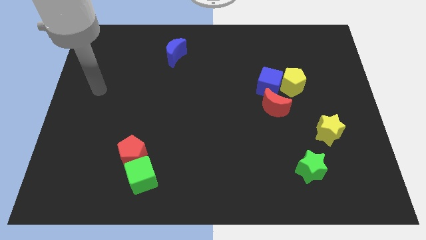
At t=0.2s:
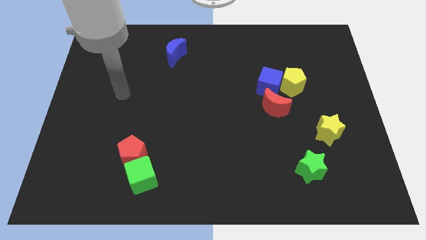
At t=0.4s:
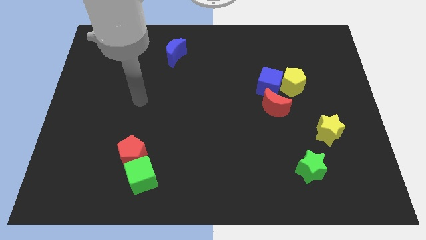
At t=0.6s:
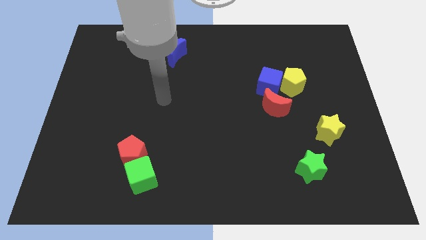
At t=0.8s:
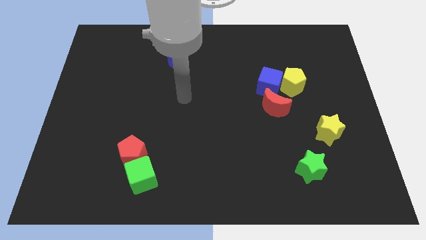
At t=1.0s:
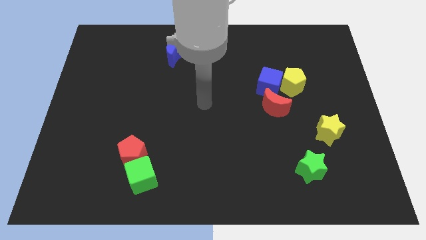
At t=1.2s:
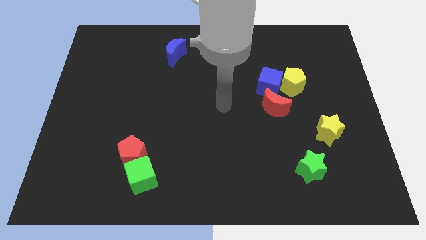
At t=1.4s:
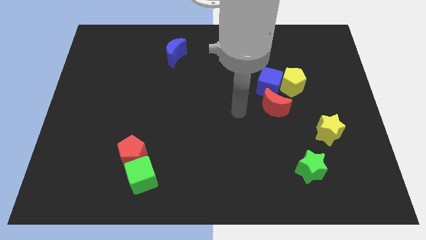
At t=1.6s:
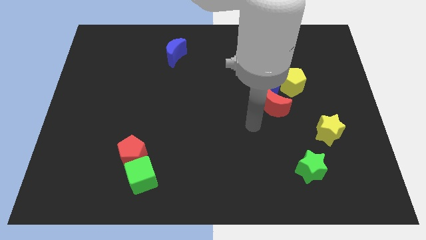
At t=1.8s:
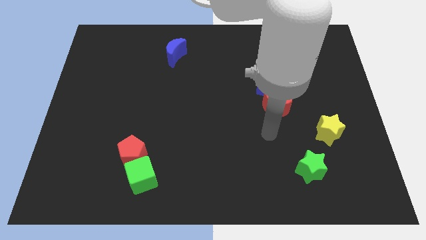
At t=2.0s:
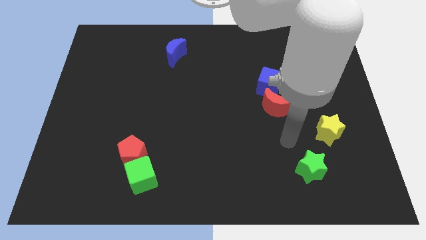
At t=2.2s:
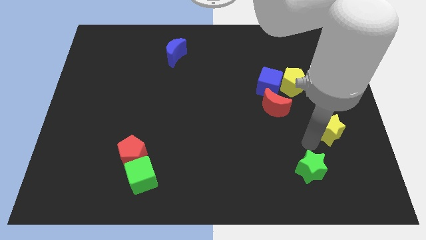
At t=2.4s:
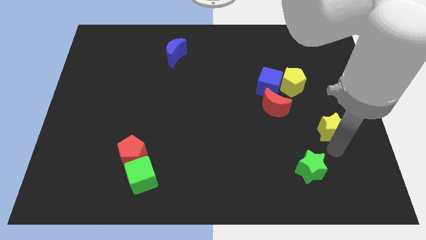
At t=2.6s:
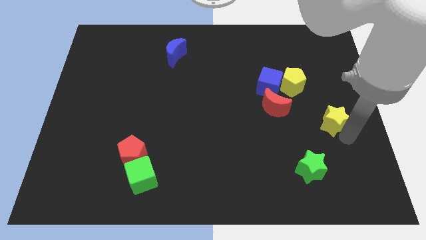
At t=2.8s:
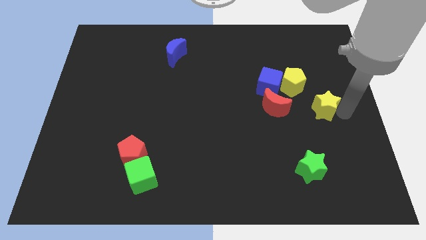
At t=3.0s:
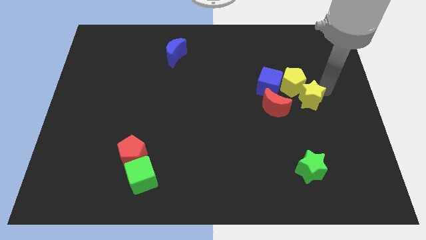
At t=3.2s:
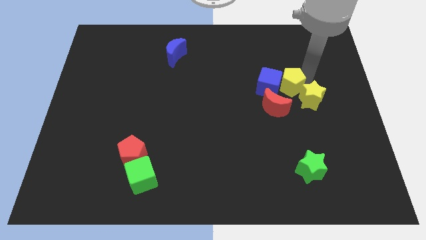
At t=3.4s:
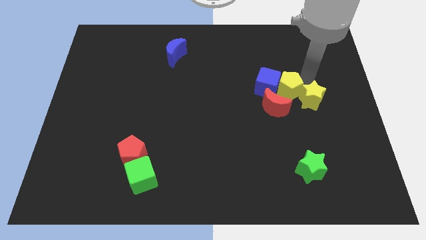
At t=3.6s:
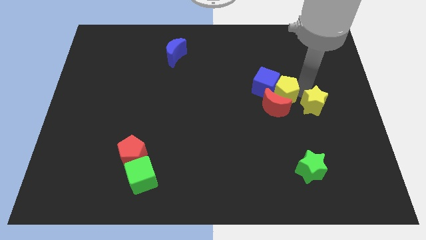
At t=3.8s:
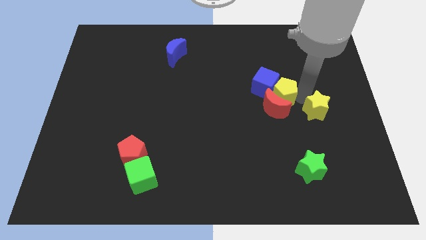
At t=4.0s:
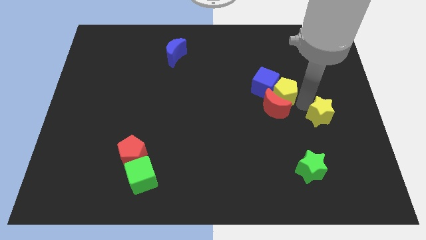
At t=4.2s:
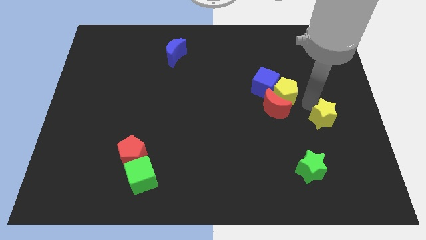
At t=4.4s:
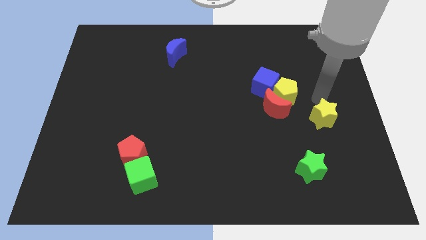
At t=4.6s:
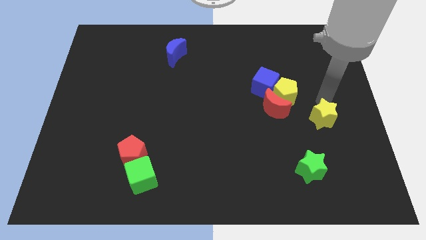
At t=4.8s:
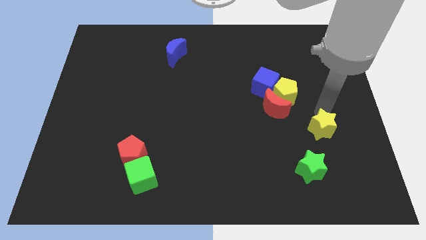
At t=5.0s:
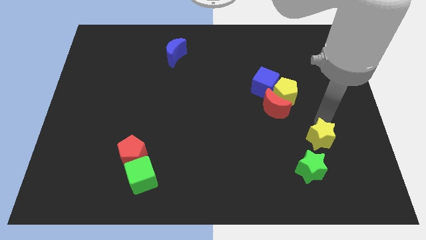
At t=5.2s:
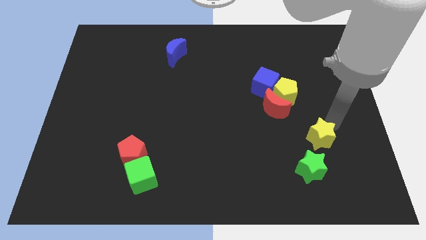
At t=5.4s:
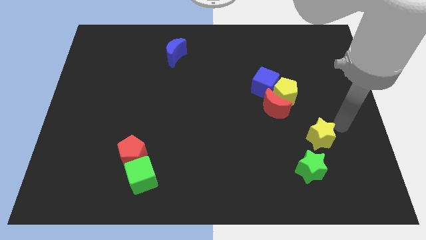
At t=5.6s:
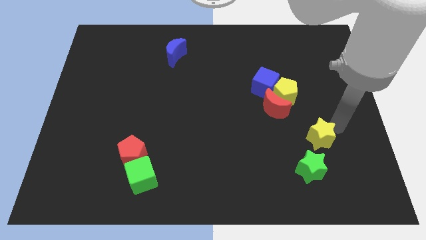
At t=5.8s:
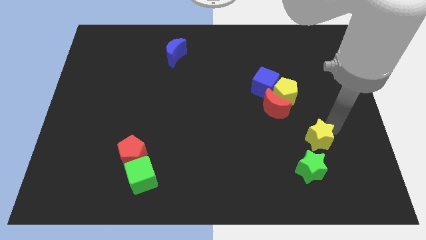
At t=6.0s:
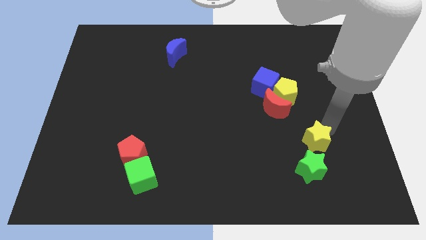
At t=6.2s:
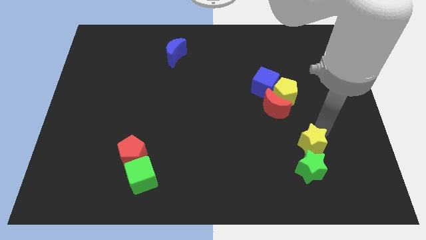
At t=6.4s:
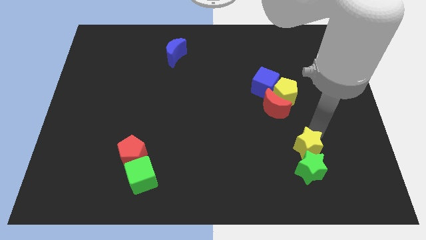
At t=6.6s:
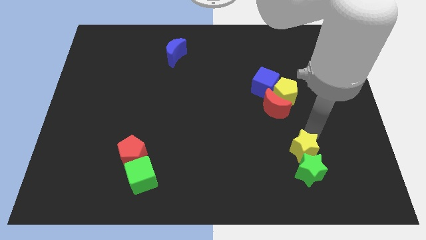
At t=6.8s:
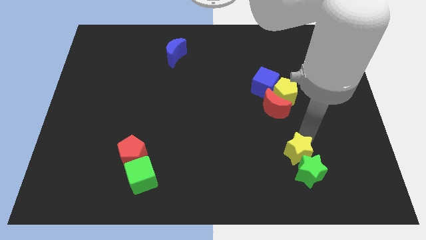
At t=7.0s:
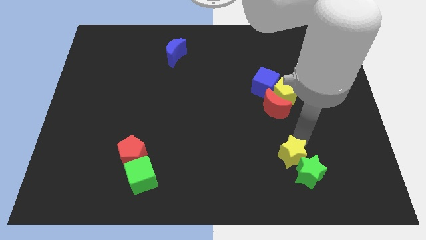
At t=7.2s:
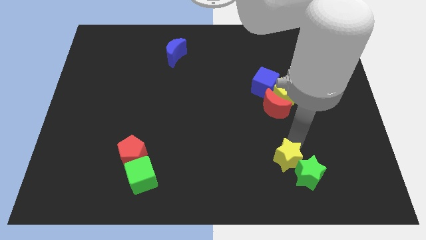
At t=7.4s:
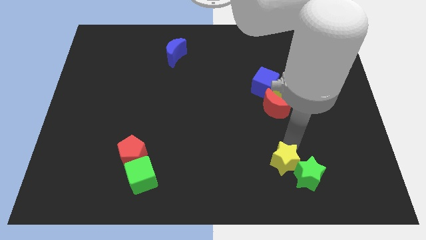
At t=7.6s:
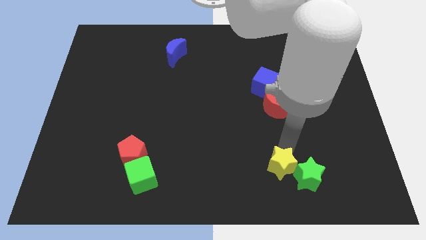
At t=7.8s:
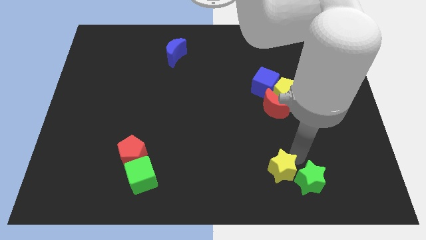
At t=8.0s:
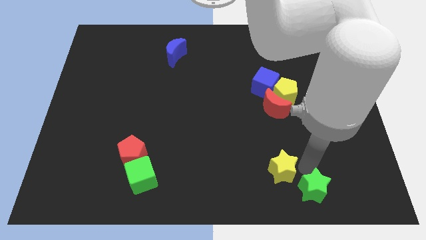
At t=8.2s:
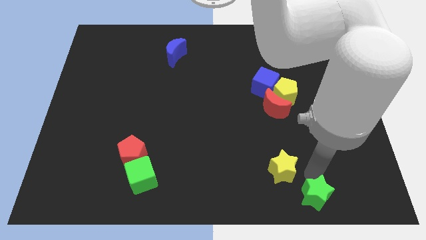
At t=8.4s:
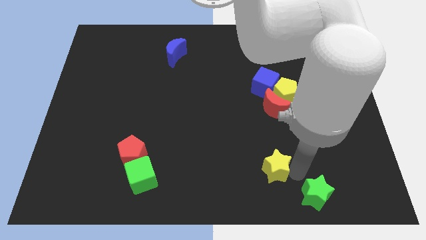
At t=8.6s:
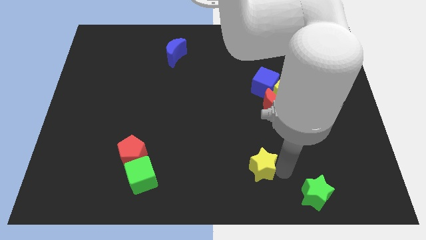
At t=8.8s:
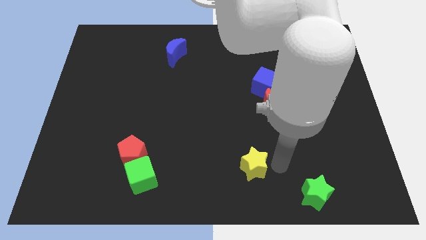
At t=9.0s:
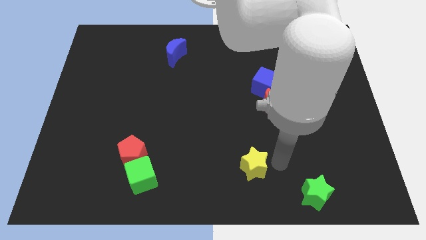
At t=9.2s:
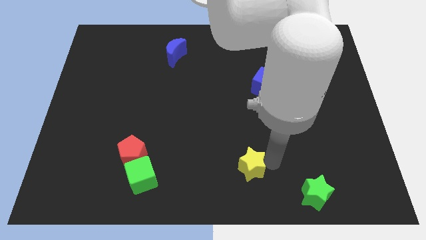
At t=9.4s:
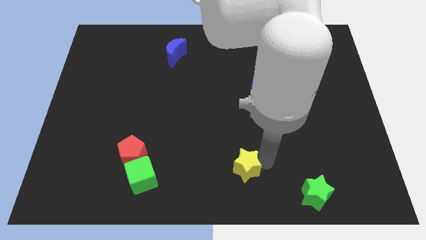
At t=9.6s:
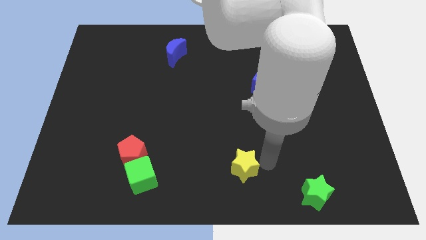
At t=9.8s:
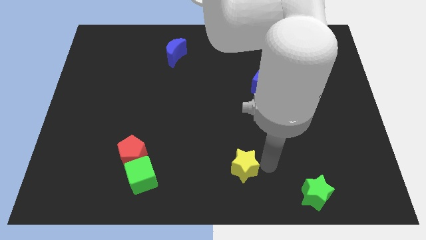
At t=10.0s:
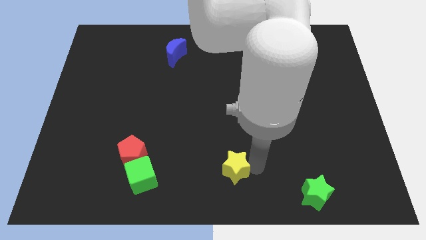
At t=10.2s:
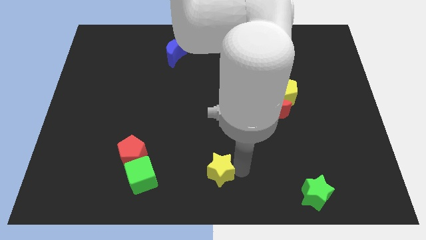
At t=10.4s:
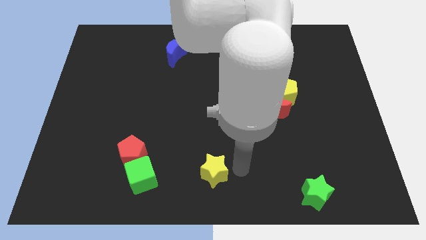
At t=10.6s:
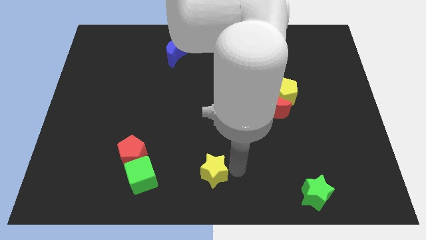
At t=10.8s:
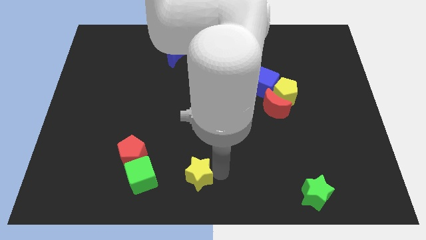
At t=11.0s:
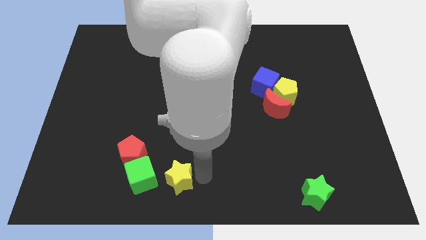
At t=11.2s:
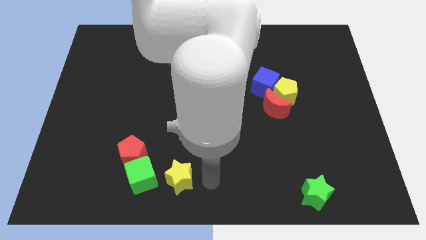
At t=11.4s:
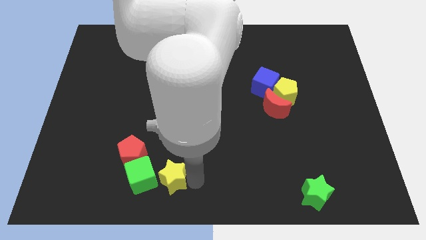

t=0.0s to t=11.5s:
push the yellow star to the green cube
